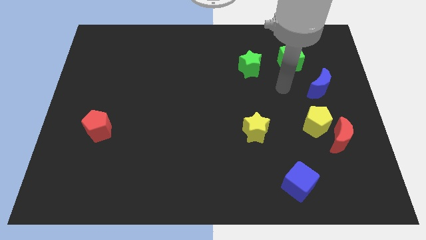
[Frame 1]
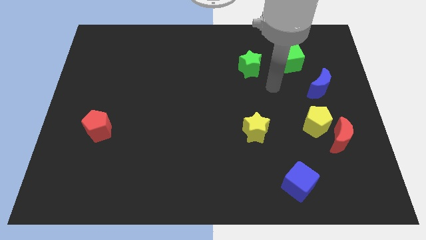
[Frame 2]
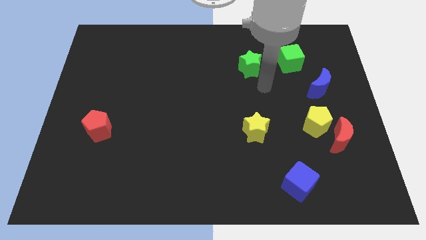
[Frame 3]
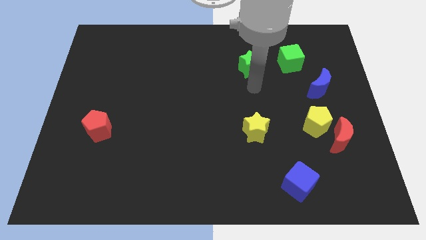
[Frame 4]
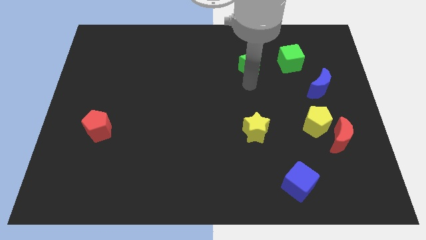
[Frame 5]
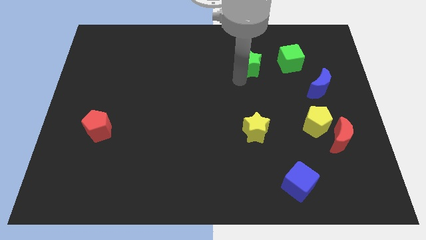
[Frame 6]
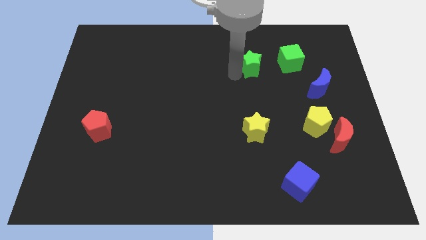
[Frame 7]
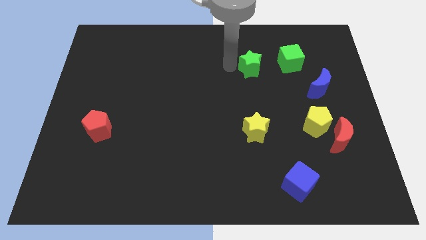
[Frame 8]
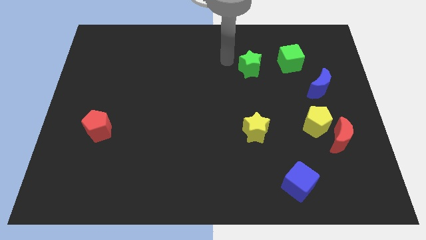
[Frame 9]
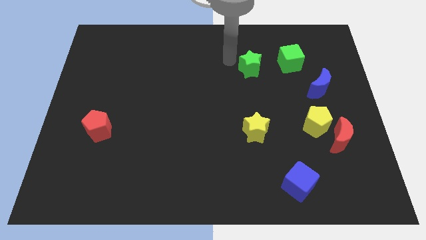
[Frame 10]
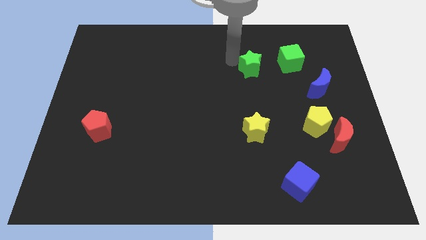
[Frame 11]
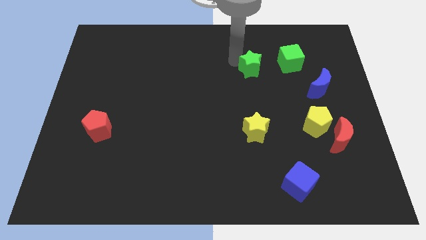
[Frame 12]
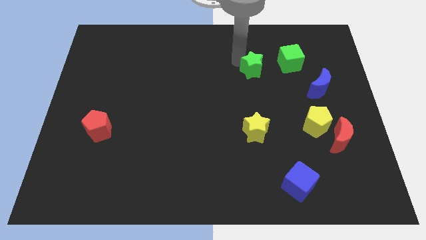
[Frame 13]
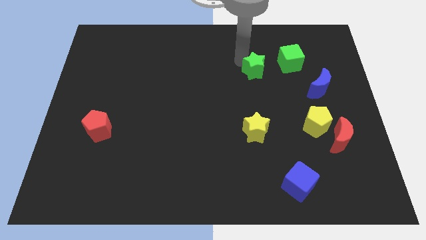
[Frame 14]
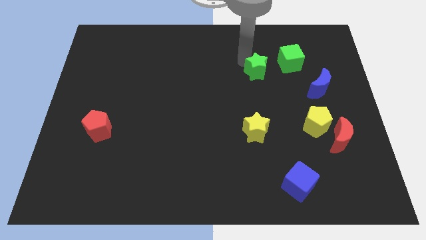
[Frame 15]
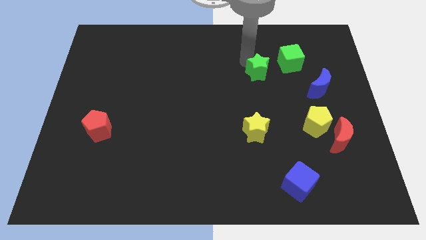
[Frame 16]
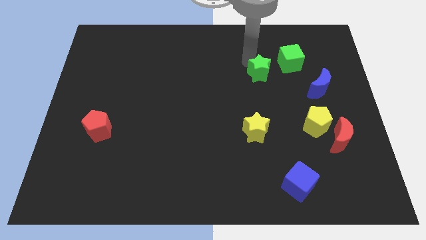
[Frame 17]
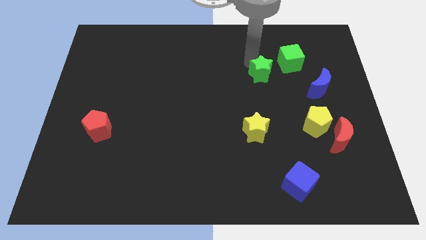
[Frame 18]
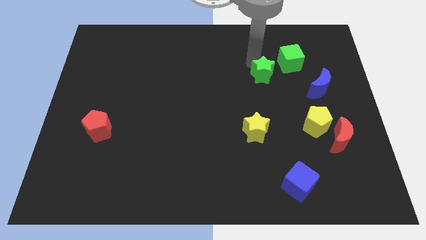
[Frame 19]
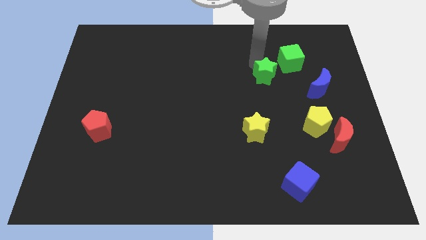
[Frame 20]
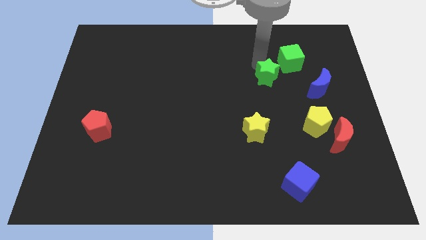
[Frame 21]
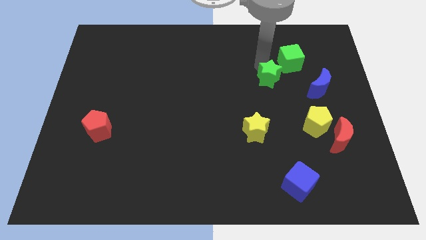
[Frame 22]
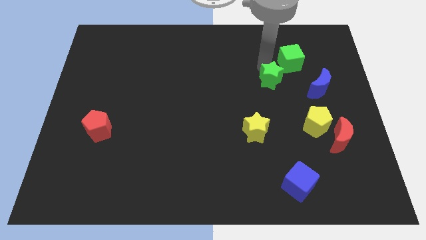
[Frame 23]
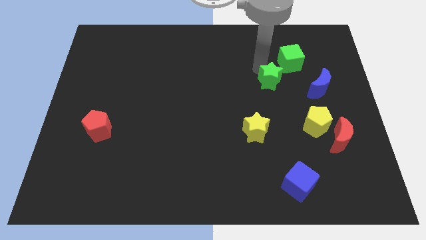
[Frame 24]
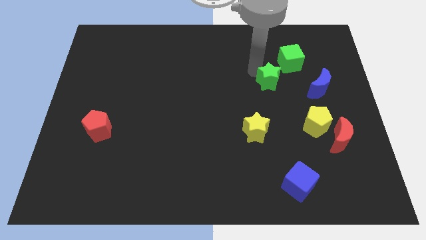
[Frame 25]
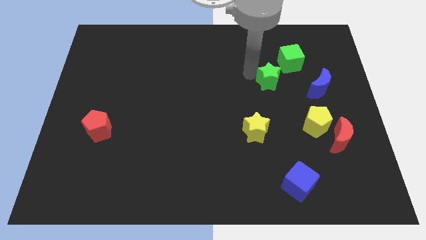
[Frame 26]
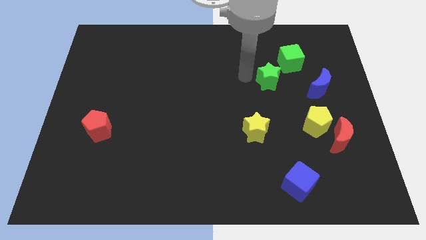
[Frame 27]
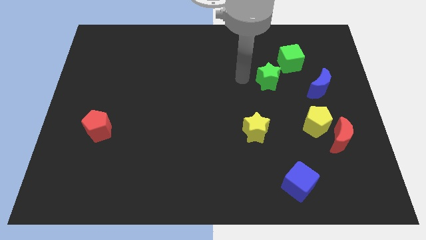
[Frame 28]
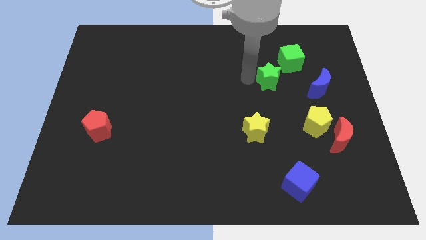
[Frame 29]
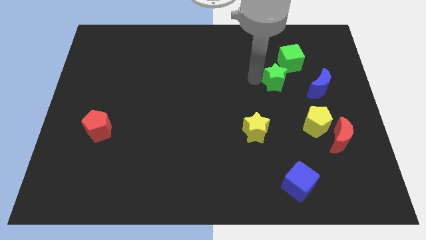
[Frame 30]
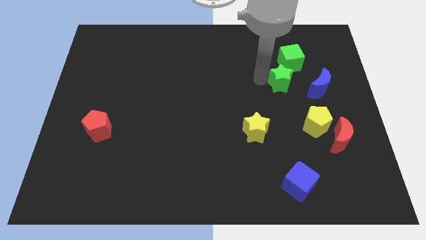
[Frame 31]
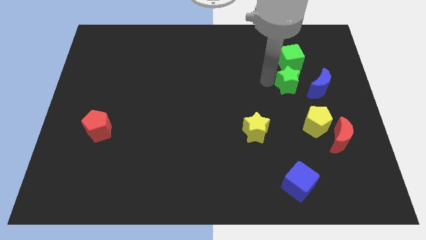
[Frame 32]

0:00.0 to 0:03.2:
push the green star to the right somewhat

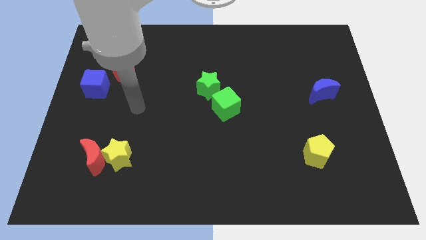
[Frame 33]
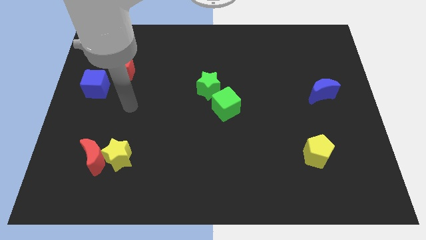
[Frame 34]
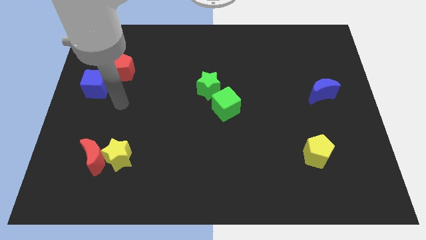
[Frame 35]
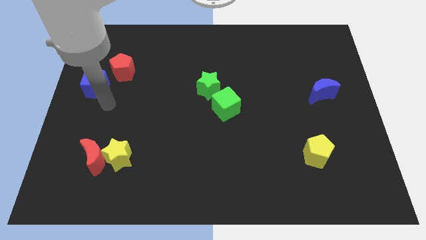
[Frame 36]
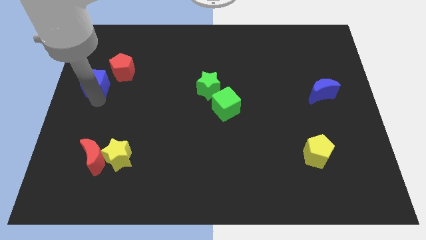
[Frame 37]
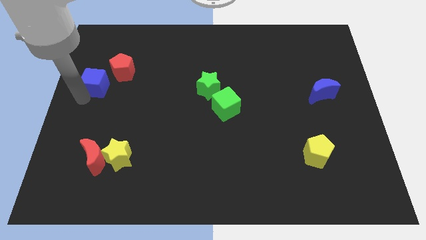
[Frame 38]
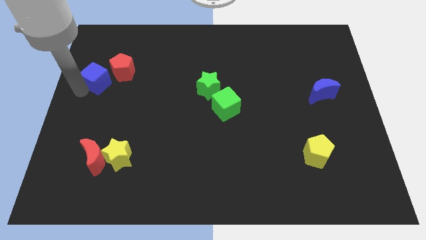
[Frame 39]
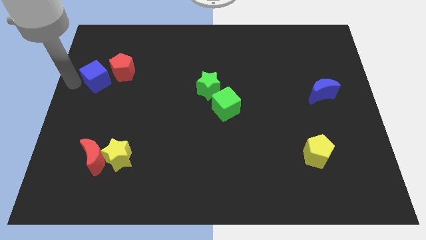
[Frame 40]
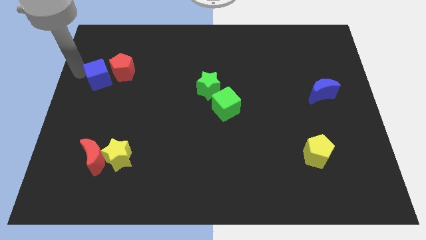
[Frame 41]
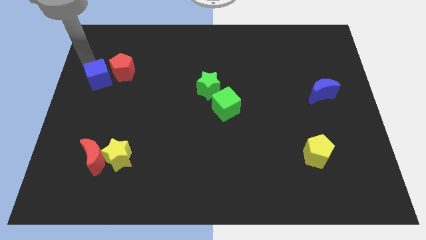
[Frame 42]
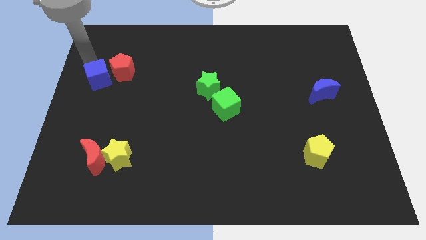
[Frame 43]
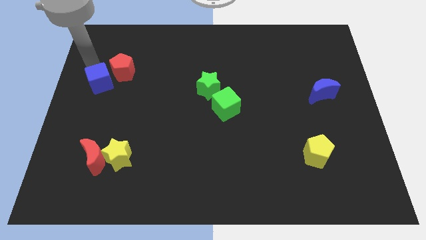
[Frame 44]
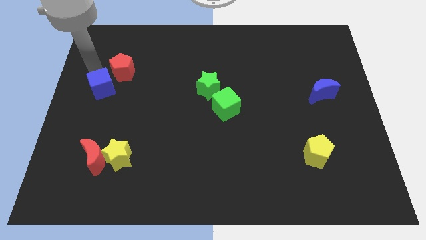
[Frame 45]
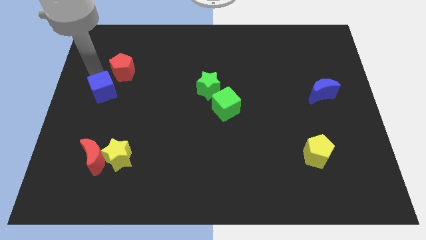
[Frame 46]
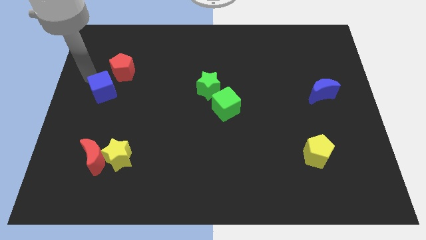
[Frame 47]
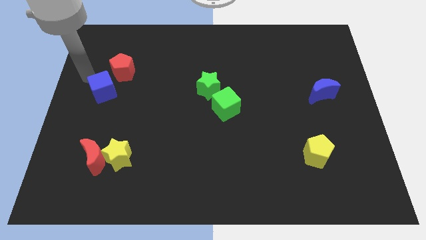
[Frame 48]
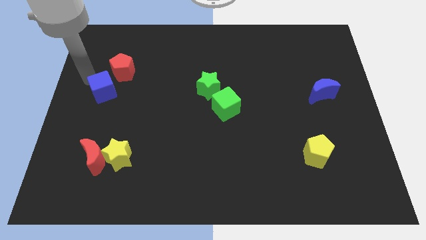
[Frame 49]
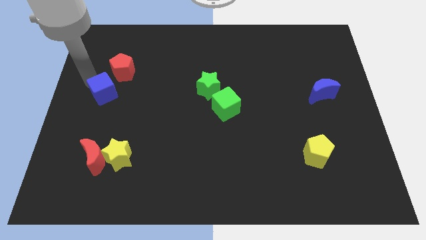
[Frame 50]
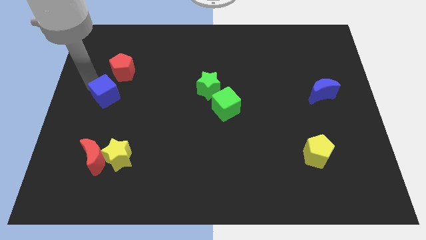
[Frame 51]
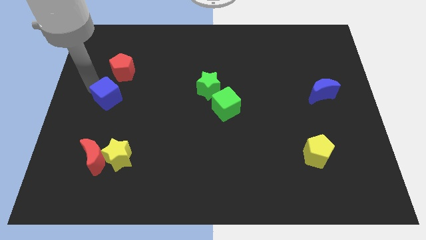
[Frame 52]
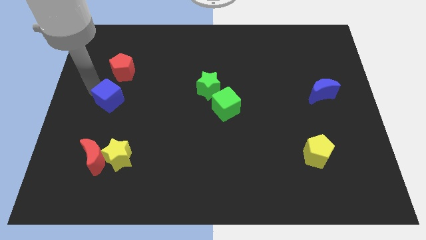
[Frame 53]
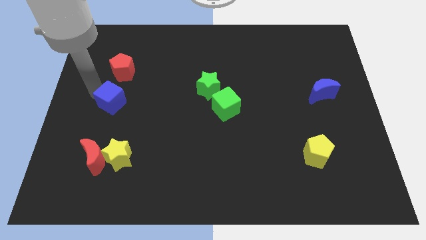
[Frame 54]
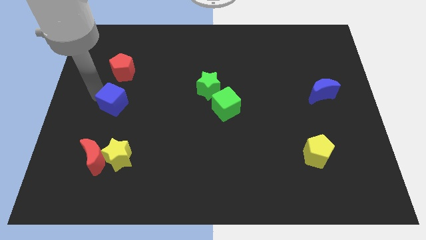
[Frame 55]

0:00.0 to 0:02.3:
push the blue cube down and to the right a bit

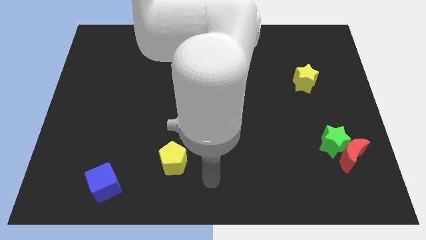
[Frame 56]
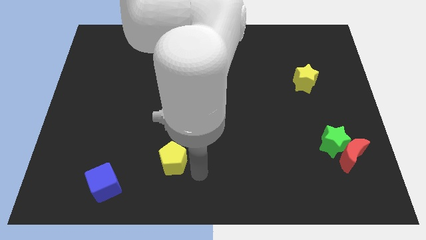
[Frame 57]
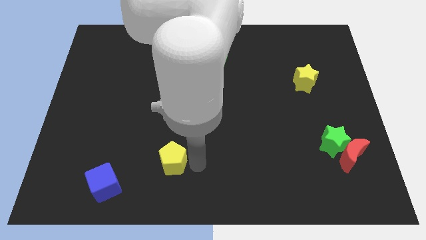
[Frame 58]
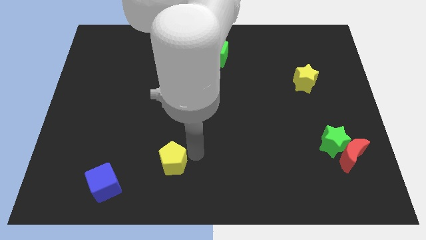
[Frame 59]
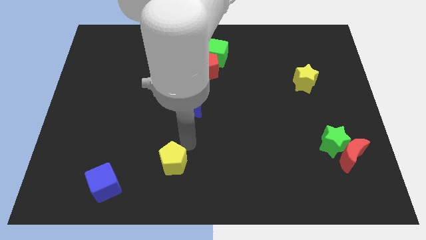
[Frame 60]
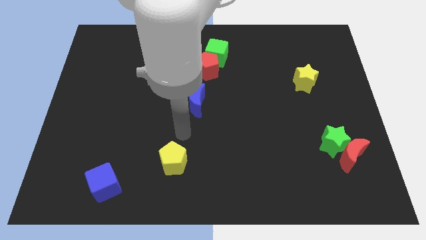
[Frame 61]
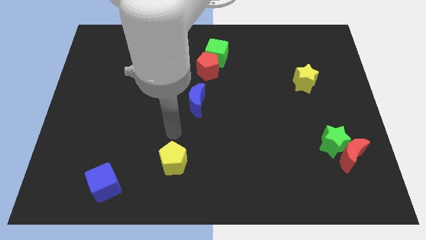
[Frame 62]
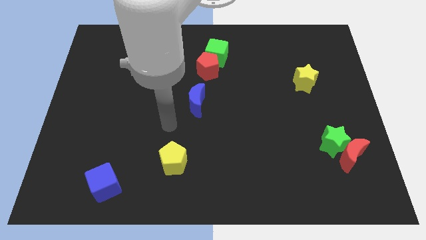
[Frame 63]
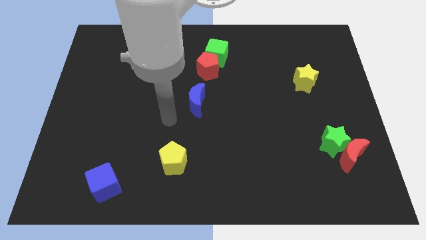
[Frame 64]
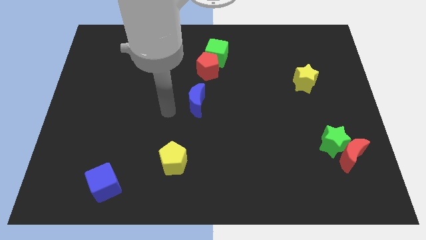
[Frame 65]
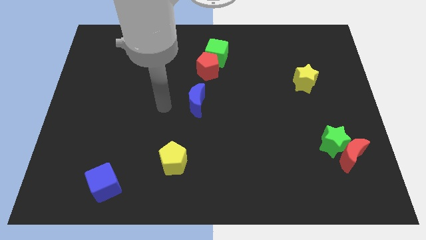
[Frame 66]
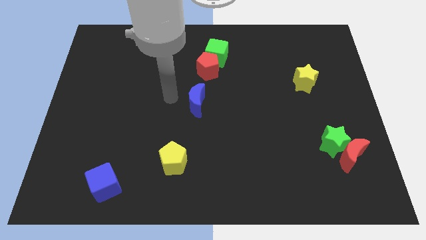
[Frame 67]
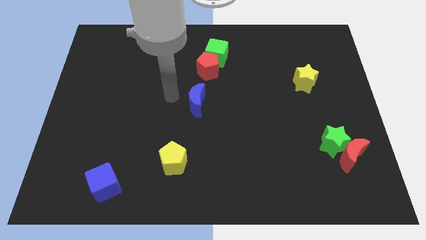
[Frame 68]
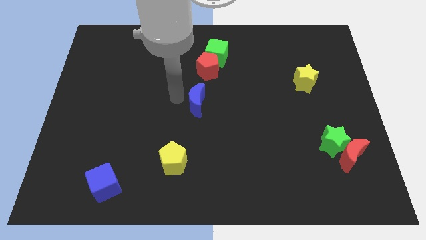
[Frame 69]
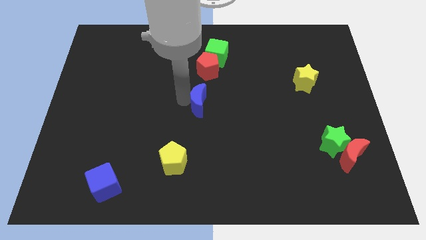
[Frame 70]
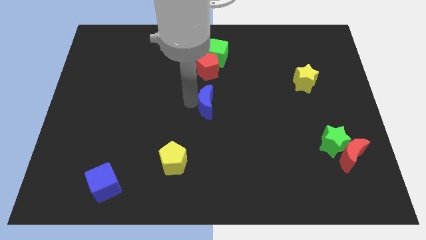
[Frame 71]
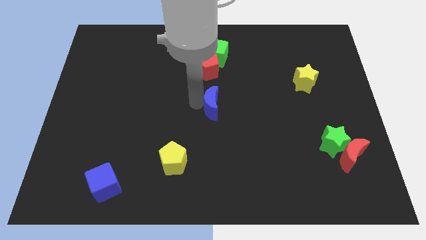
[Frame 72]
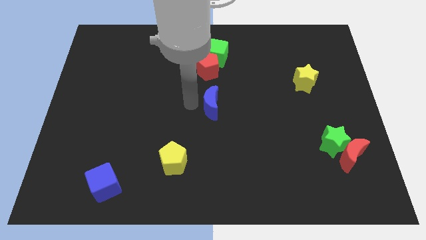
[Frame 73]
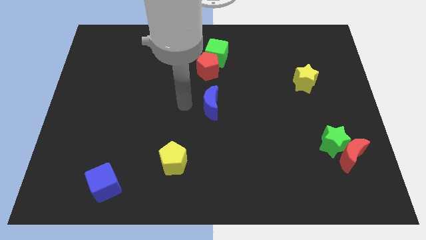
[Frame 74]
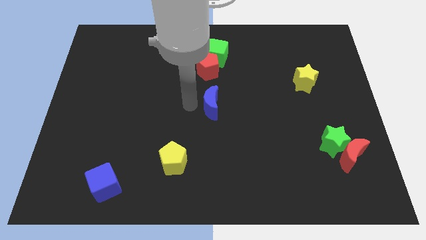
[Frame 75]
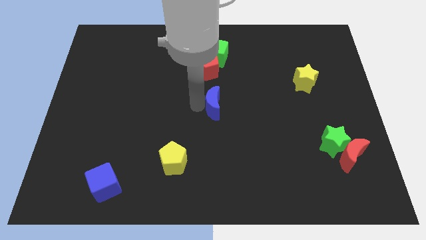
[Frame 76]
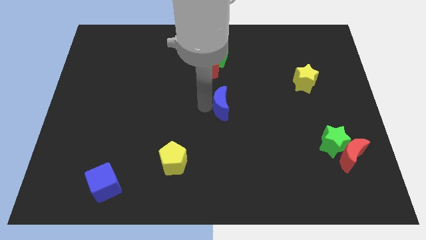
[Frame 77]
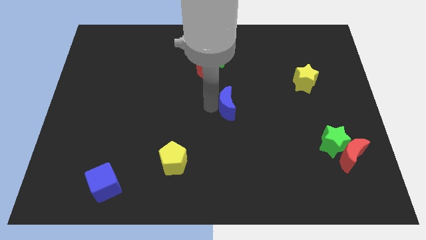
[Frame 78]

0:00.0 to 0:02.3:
push the blue moon slightly to the right

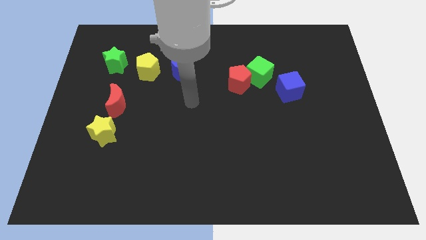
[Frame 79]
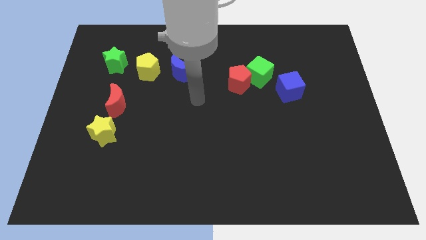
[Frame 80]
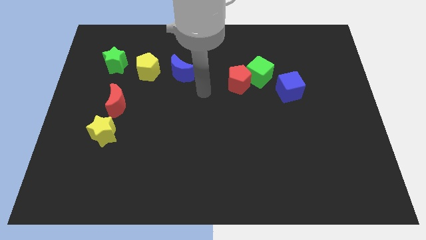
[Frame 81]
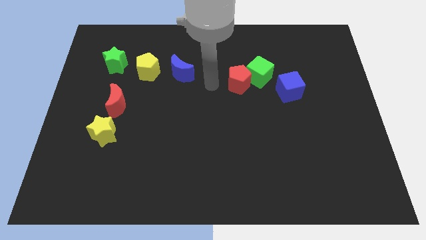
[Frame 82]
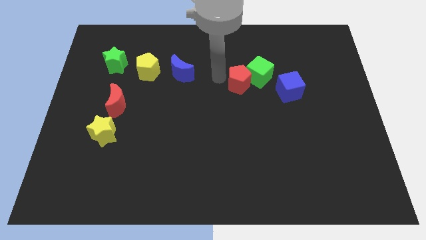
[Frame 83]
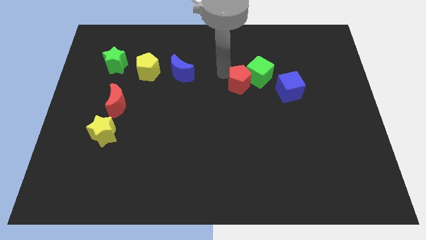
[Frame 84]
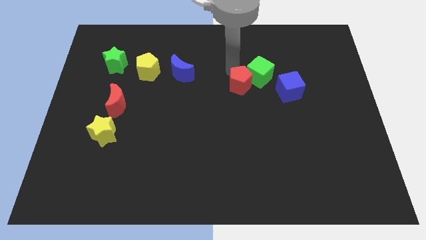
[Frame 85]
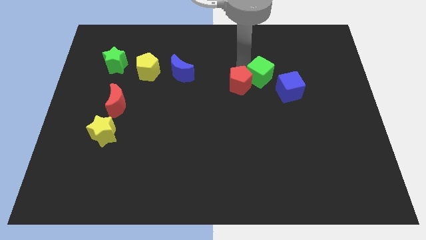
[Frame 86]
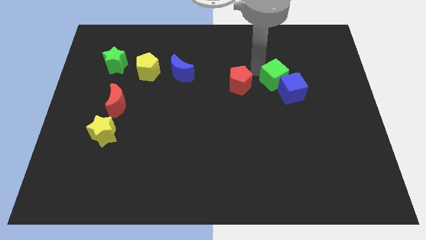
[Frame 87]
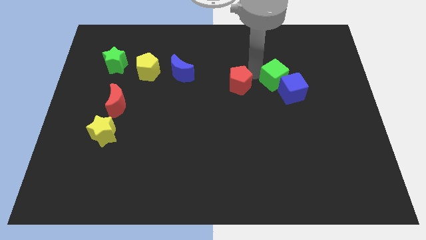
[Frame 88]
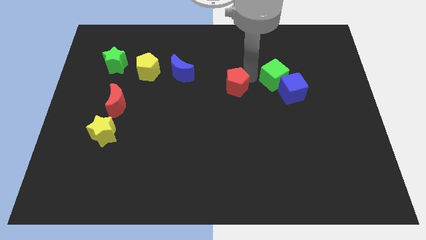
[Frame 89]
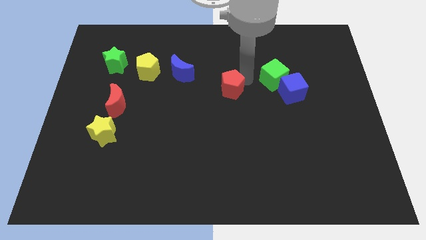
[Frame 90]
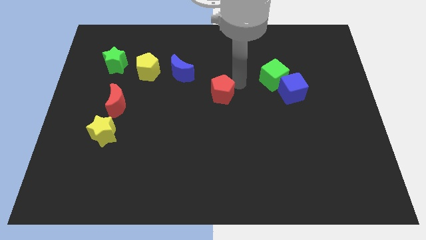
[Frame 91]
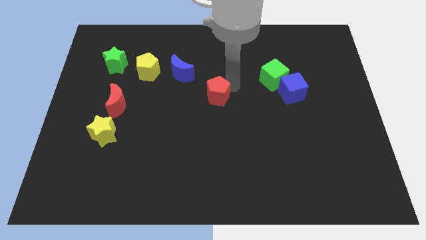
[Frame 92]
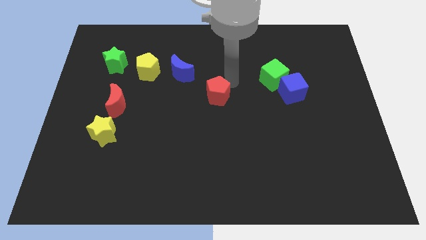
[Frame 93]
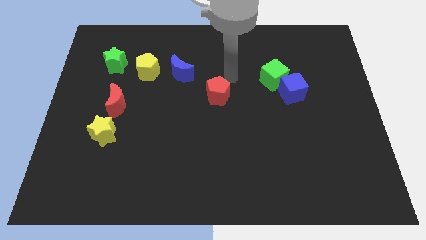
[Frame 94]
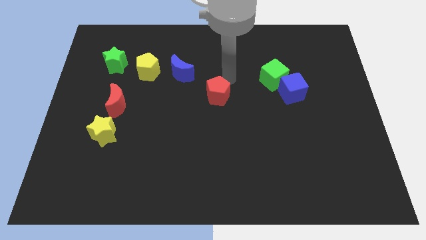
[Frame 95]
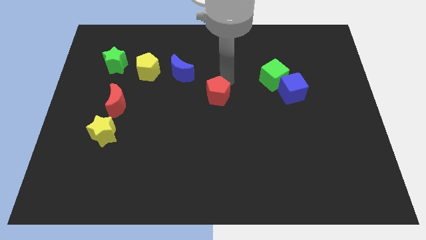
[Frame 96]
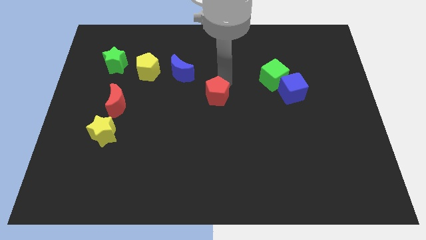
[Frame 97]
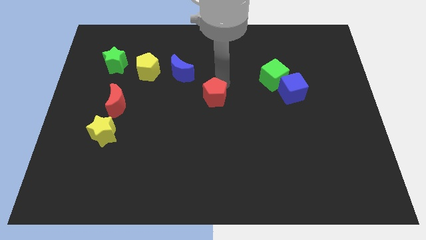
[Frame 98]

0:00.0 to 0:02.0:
slightly move the red pentagon diagonally downwards and to the left
